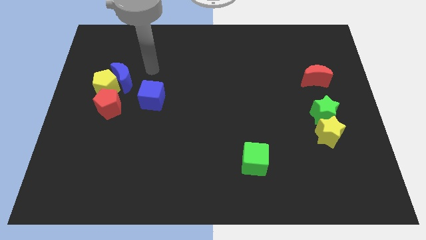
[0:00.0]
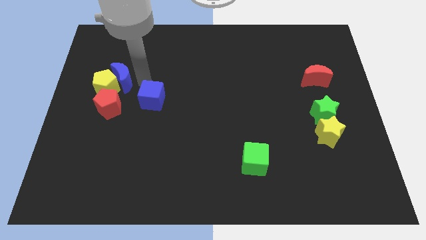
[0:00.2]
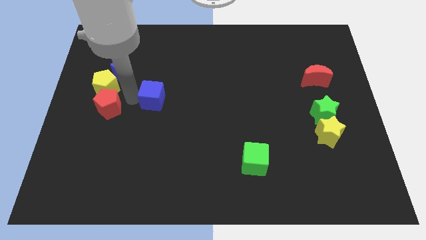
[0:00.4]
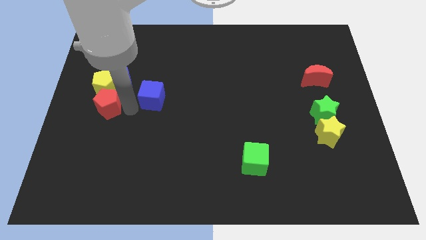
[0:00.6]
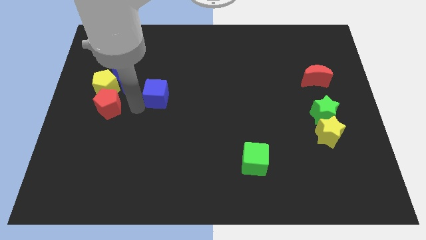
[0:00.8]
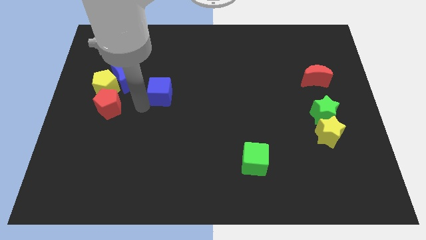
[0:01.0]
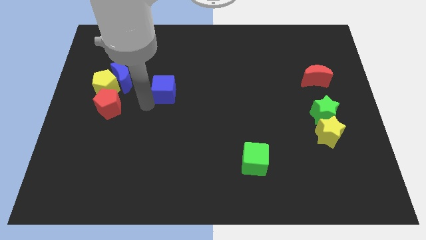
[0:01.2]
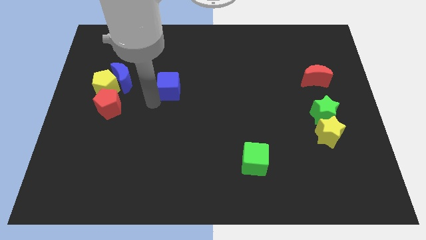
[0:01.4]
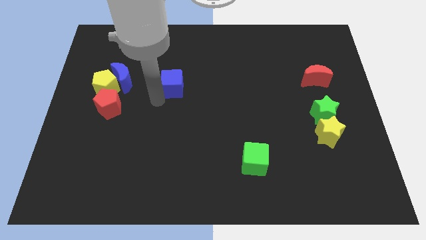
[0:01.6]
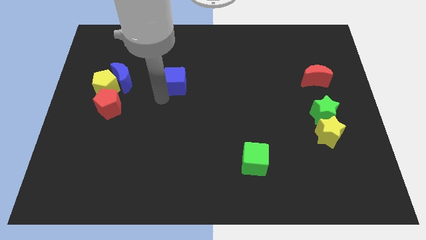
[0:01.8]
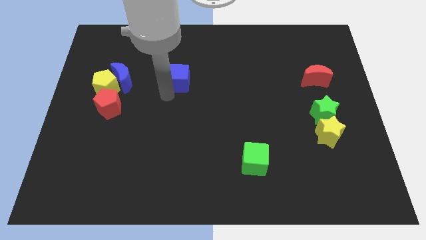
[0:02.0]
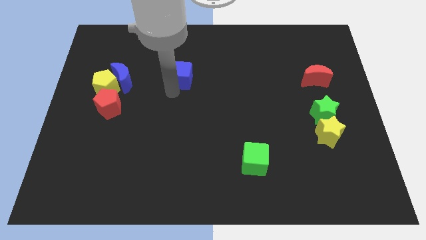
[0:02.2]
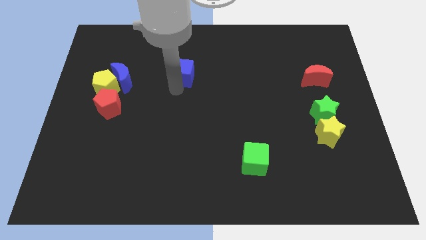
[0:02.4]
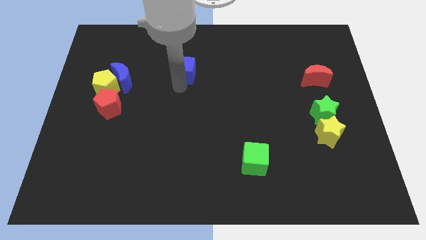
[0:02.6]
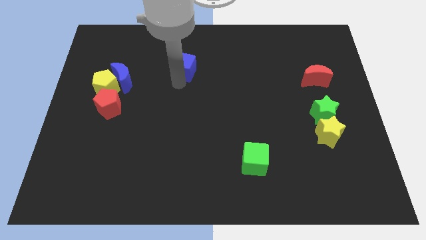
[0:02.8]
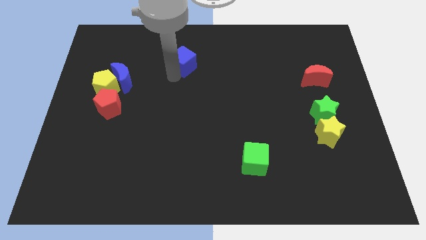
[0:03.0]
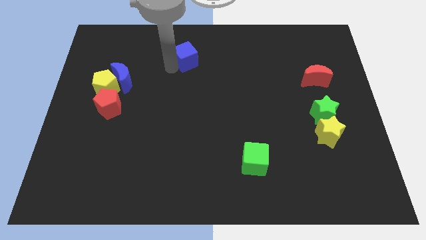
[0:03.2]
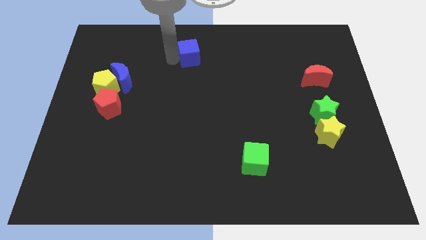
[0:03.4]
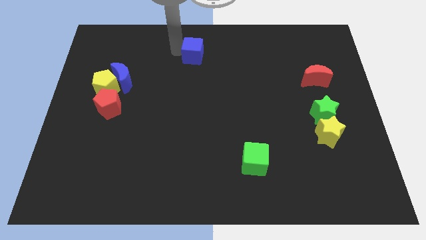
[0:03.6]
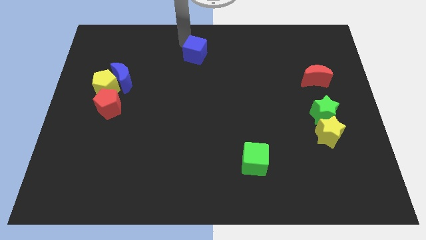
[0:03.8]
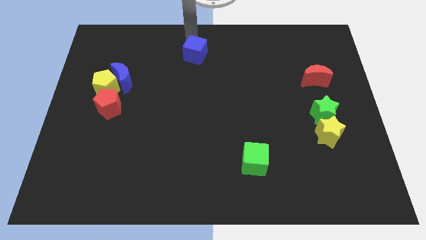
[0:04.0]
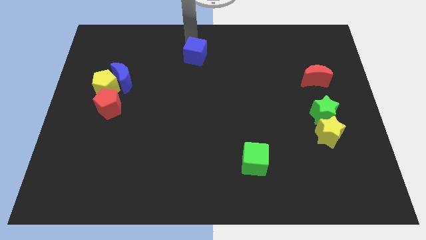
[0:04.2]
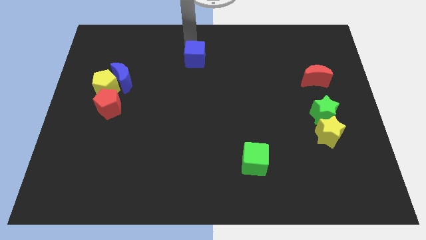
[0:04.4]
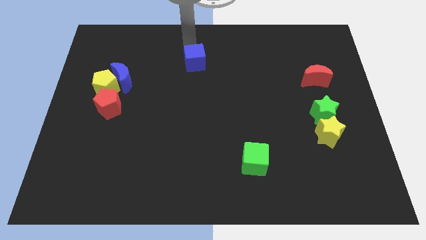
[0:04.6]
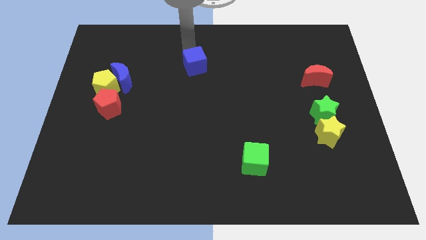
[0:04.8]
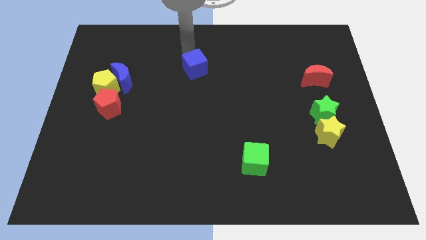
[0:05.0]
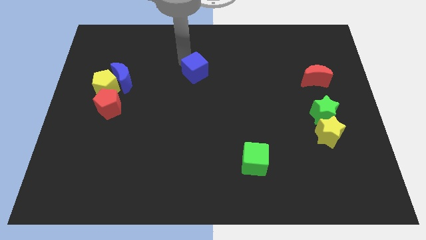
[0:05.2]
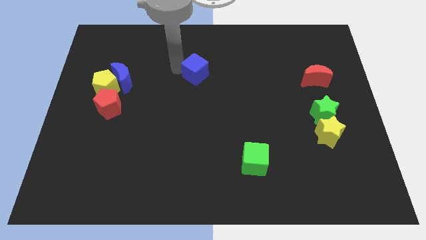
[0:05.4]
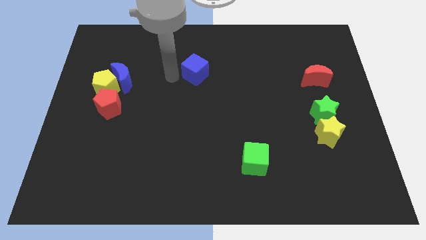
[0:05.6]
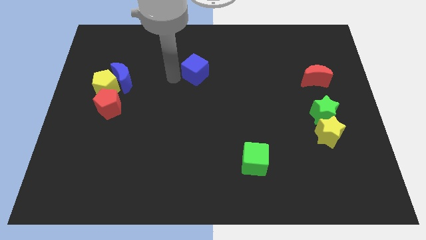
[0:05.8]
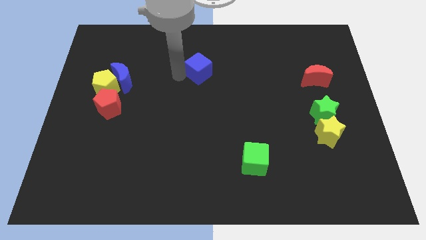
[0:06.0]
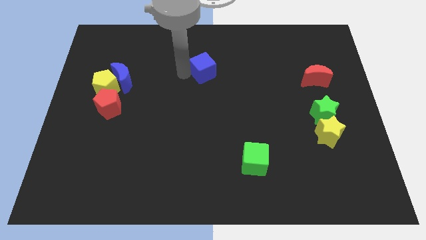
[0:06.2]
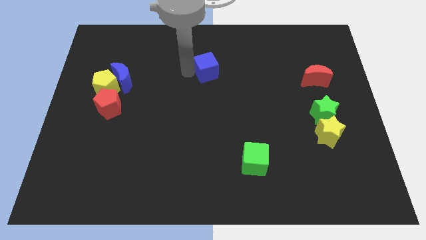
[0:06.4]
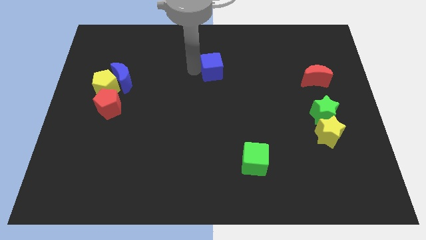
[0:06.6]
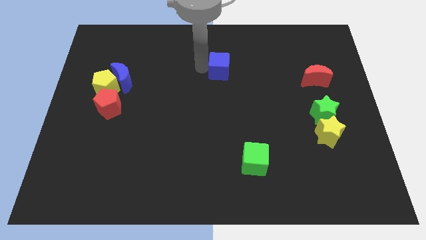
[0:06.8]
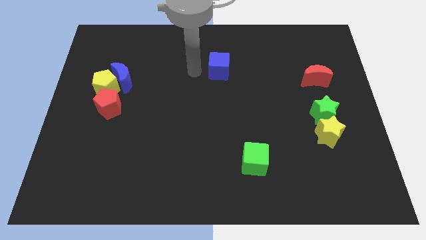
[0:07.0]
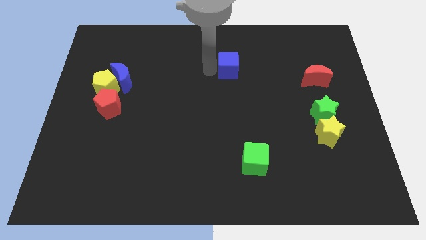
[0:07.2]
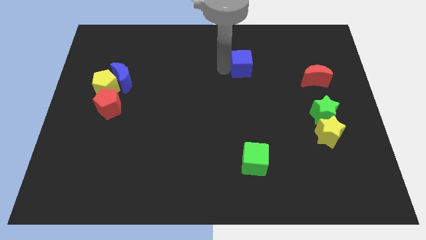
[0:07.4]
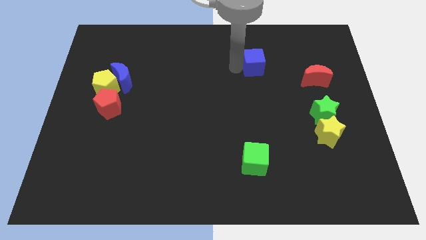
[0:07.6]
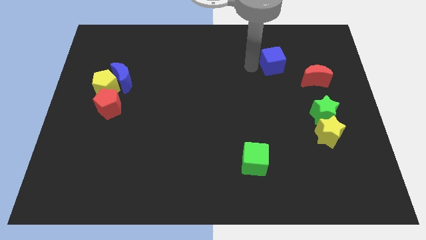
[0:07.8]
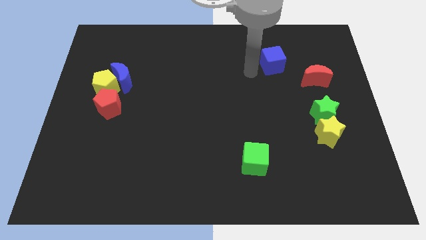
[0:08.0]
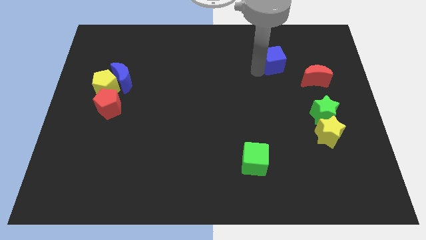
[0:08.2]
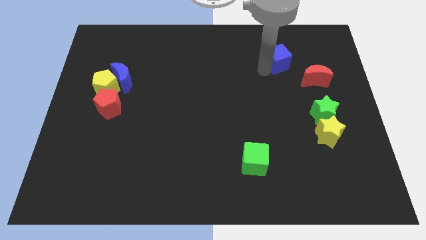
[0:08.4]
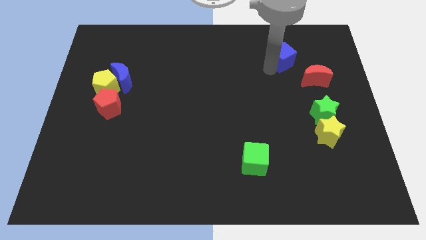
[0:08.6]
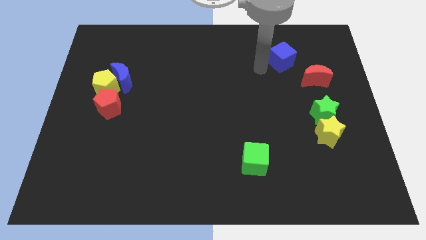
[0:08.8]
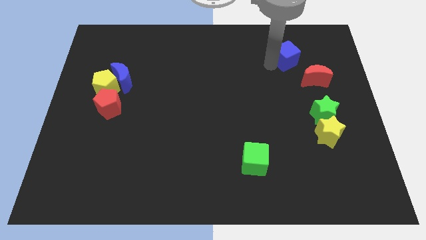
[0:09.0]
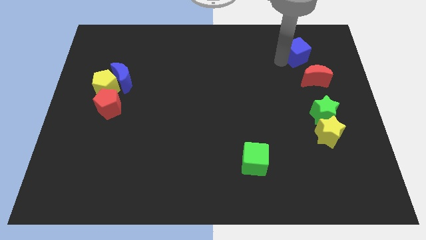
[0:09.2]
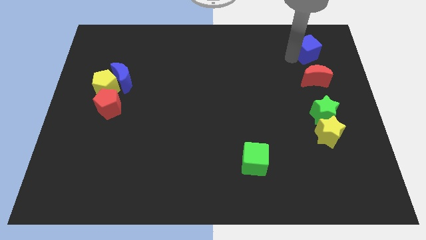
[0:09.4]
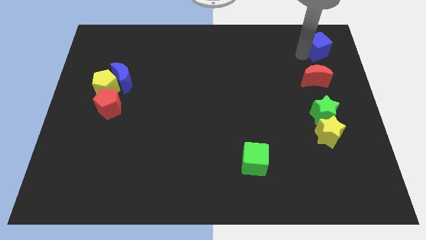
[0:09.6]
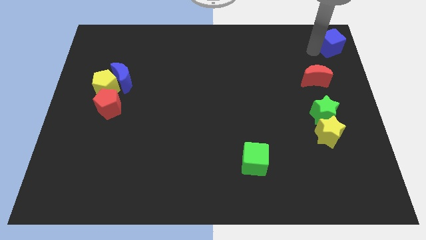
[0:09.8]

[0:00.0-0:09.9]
slide the blue cube to the top right of the board
